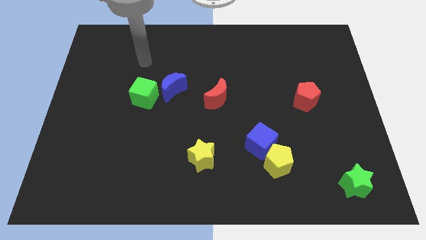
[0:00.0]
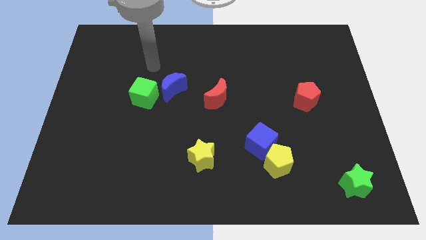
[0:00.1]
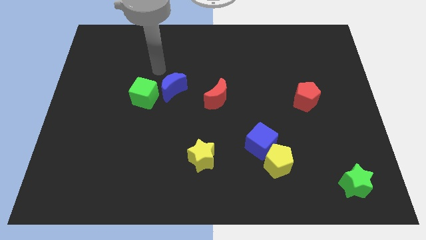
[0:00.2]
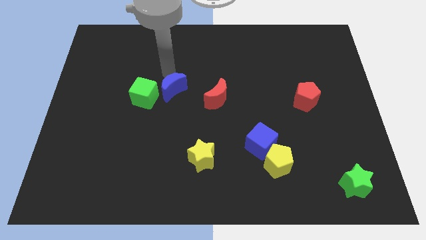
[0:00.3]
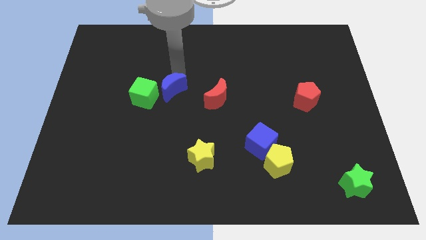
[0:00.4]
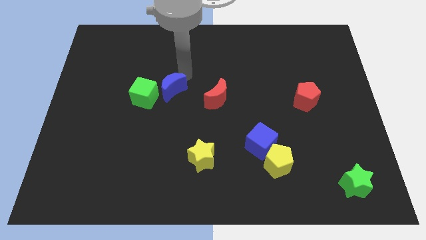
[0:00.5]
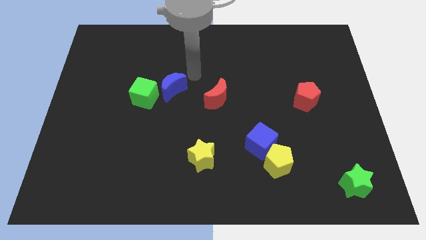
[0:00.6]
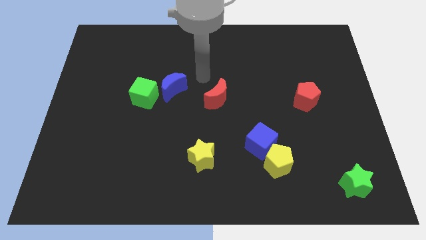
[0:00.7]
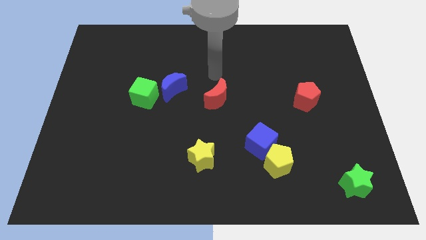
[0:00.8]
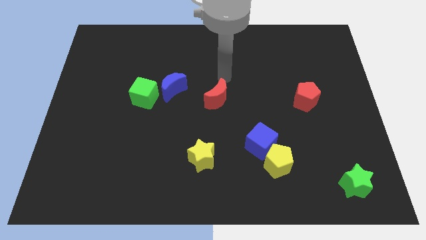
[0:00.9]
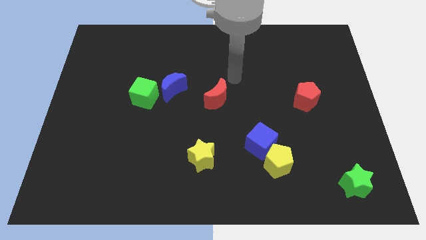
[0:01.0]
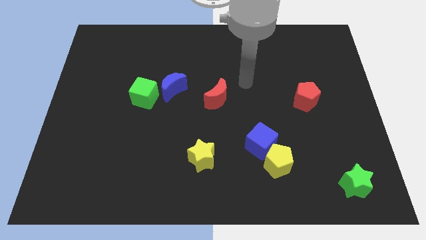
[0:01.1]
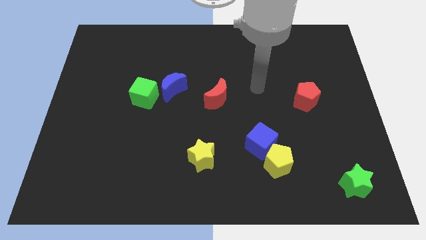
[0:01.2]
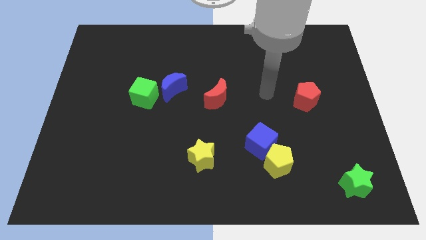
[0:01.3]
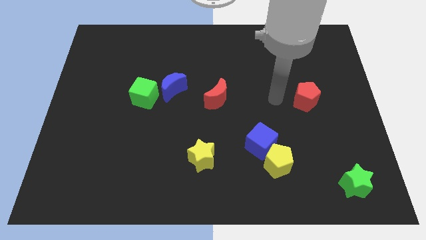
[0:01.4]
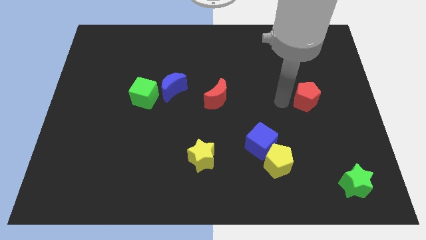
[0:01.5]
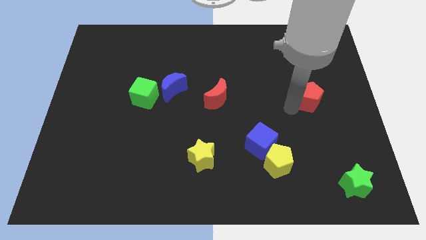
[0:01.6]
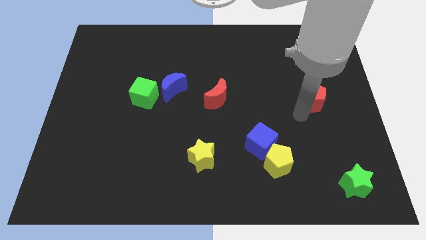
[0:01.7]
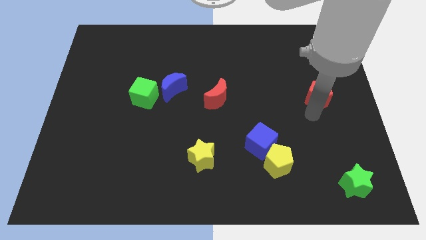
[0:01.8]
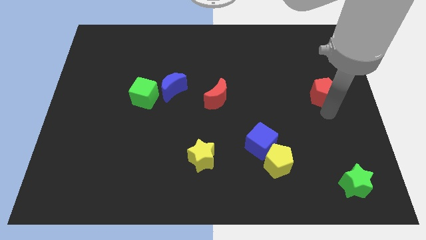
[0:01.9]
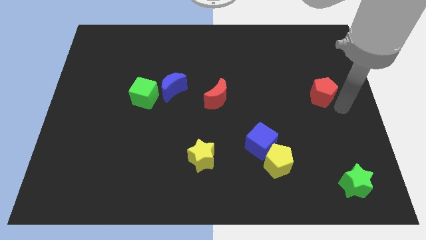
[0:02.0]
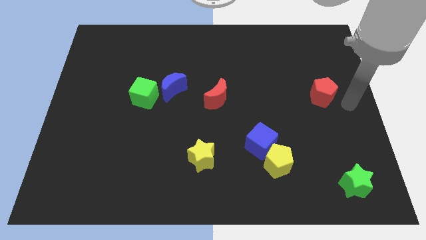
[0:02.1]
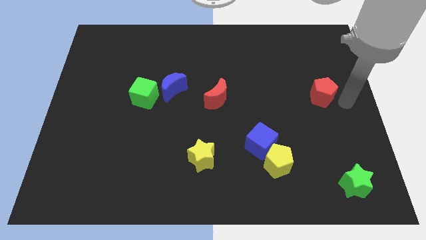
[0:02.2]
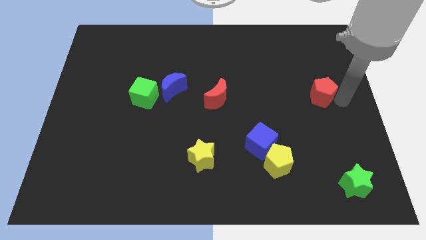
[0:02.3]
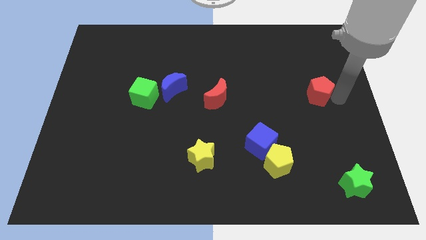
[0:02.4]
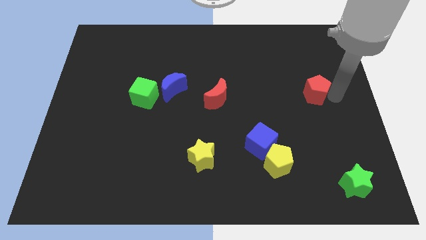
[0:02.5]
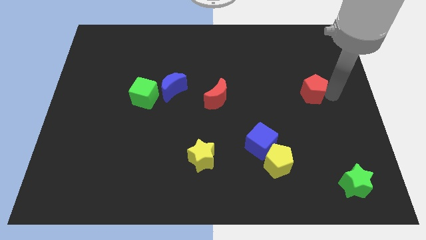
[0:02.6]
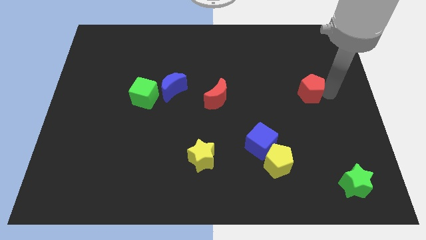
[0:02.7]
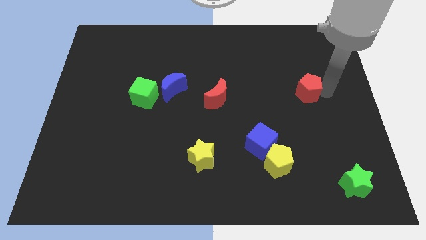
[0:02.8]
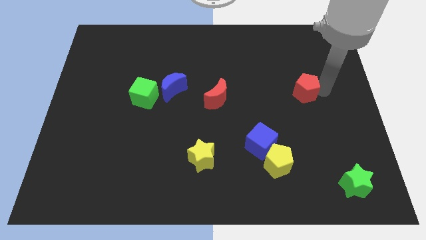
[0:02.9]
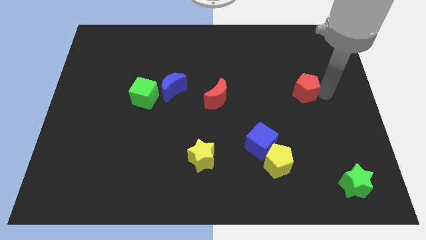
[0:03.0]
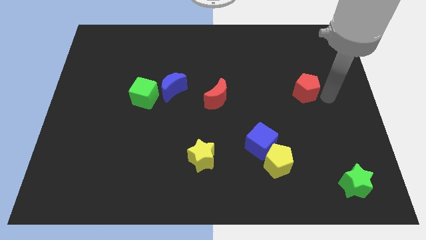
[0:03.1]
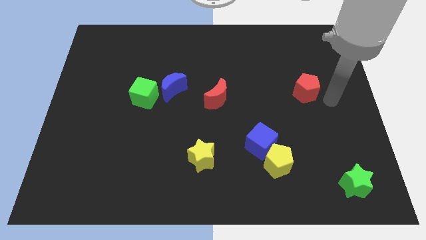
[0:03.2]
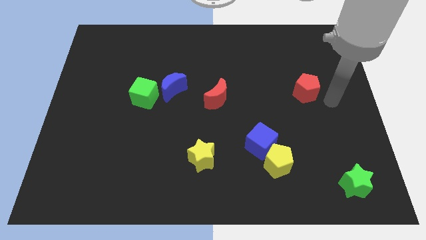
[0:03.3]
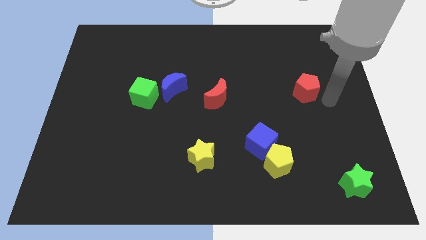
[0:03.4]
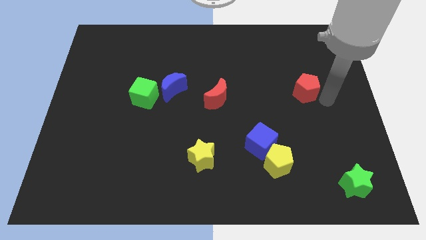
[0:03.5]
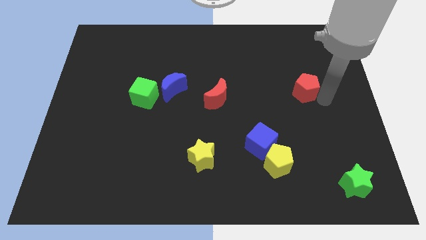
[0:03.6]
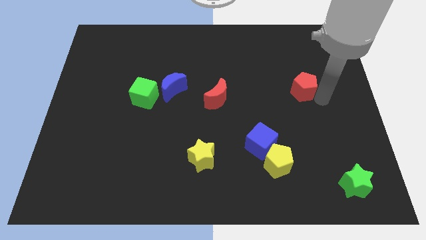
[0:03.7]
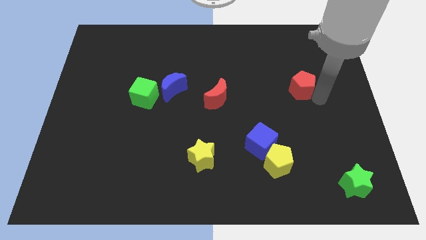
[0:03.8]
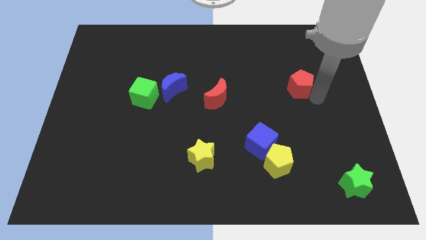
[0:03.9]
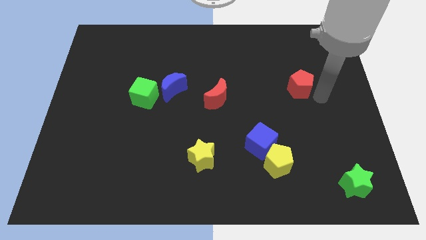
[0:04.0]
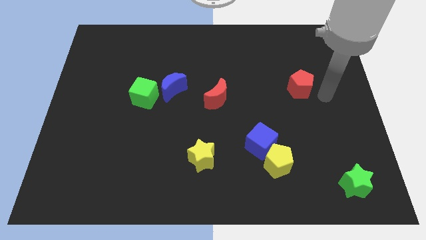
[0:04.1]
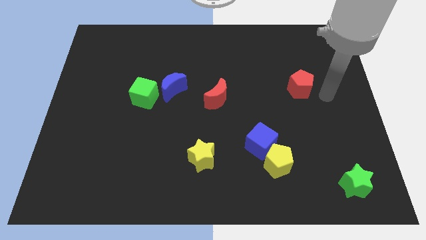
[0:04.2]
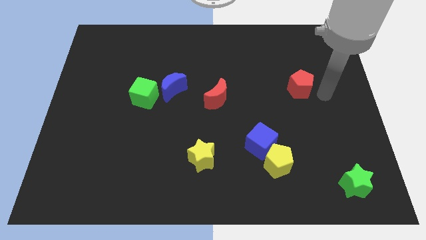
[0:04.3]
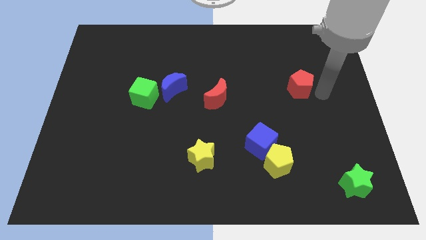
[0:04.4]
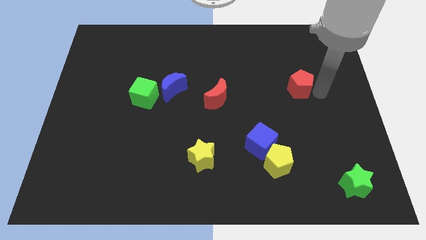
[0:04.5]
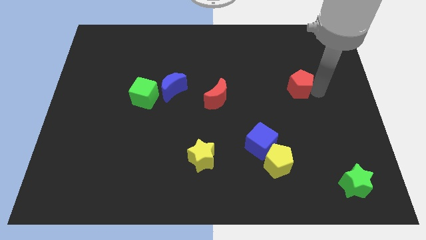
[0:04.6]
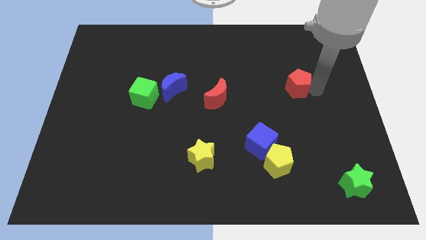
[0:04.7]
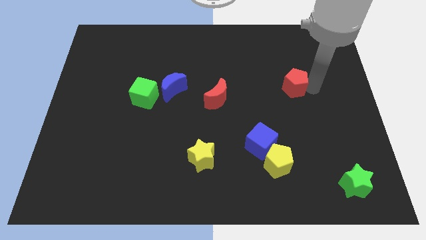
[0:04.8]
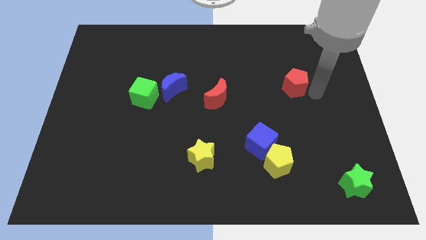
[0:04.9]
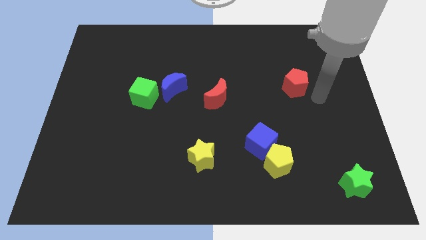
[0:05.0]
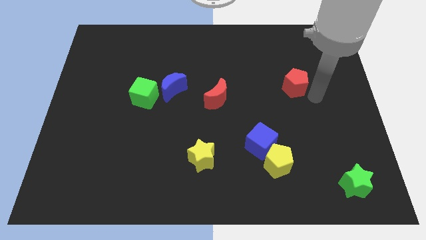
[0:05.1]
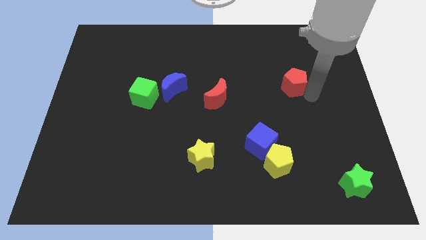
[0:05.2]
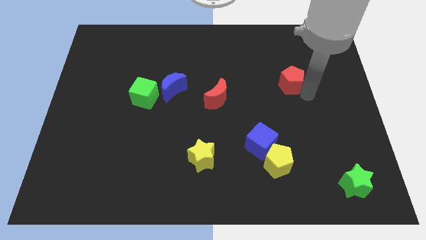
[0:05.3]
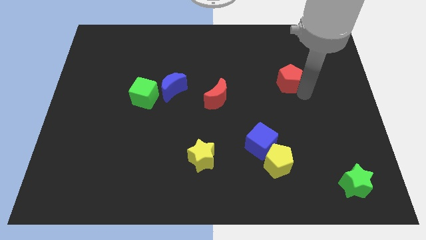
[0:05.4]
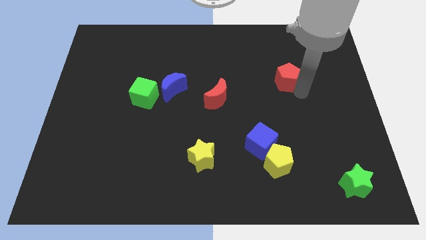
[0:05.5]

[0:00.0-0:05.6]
push the red pentagon upwards and then left a little bit

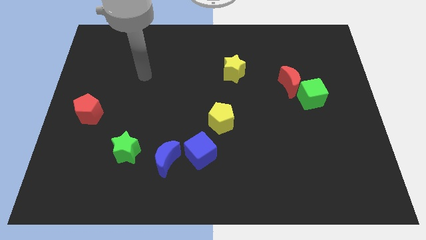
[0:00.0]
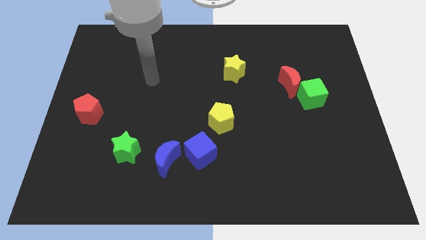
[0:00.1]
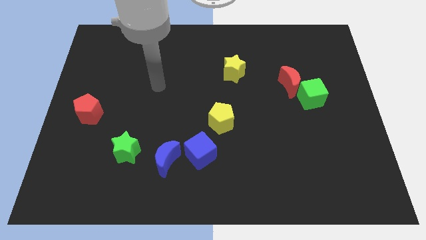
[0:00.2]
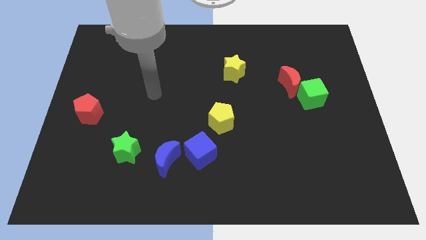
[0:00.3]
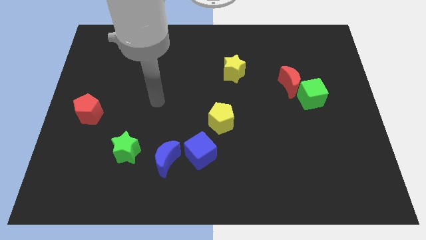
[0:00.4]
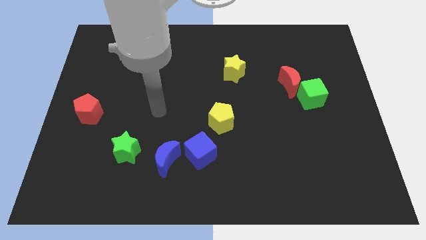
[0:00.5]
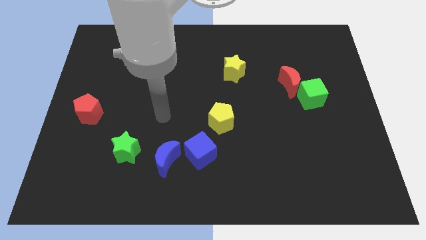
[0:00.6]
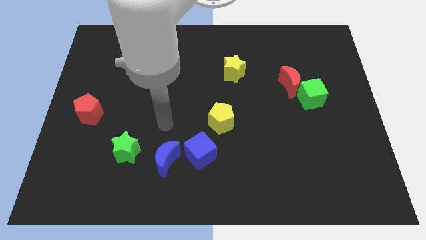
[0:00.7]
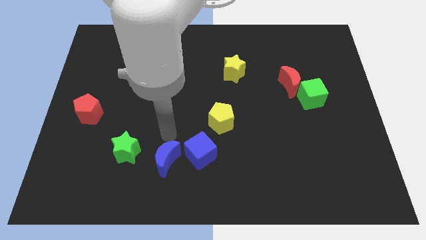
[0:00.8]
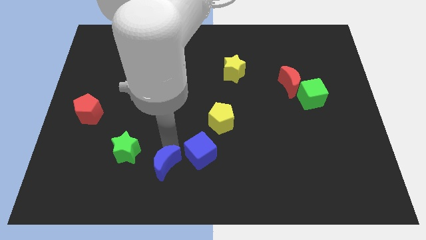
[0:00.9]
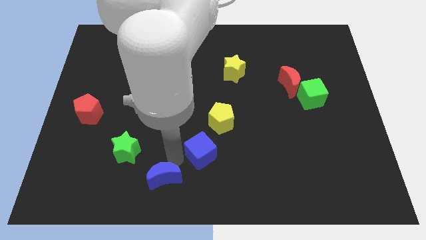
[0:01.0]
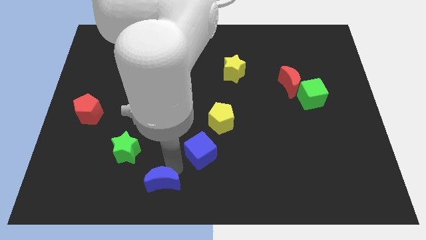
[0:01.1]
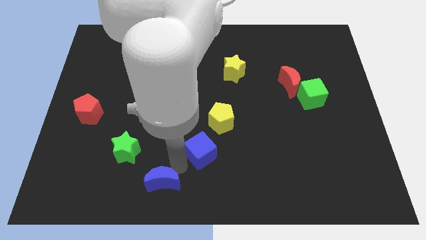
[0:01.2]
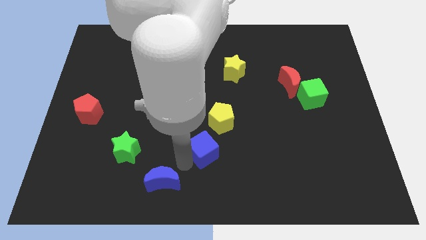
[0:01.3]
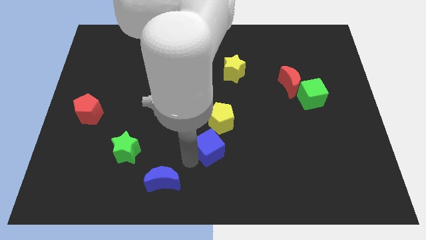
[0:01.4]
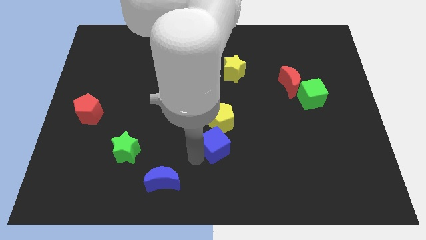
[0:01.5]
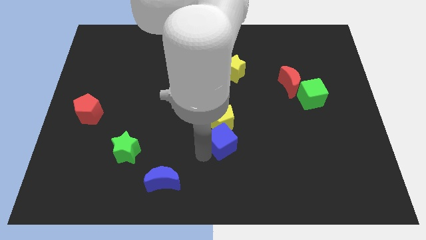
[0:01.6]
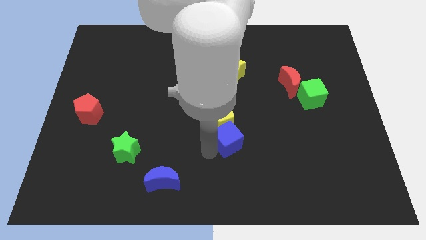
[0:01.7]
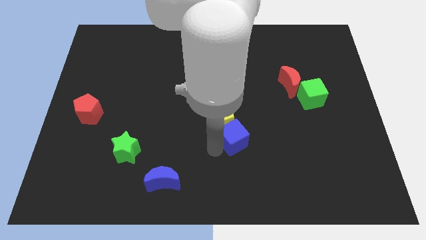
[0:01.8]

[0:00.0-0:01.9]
slightly move the blue cube upwards and right

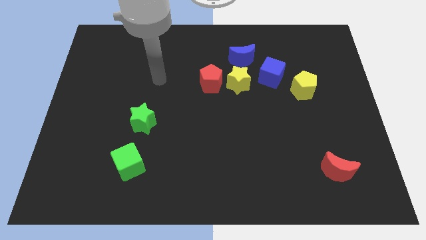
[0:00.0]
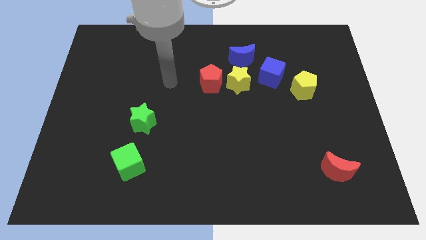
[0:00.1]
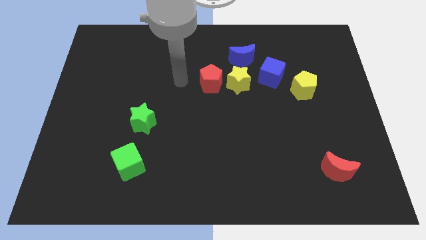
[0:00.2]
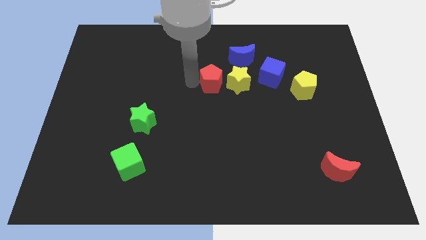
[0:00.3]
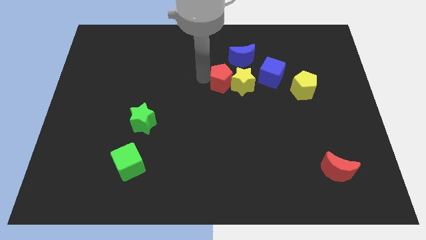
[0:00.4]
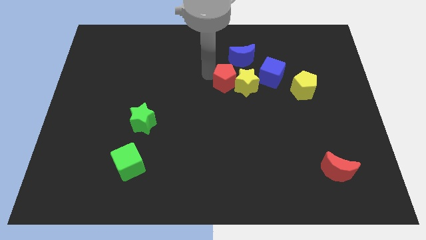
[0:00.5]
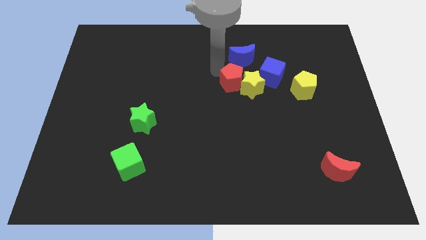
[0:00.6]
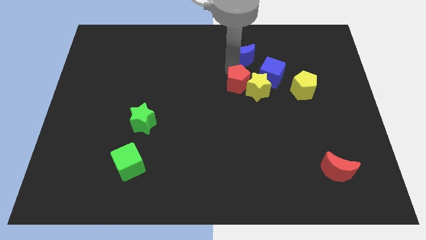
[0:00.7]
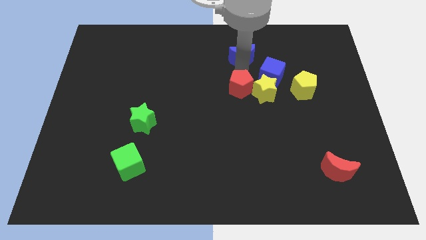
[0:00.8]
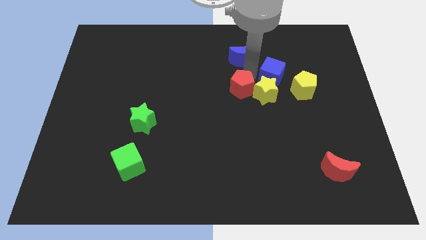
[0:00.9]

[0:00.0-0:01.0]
push the yellow star a bit down and then to the right
